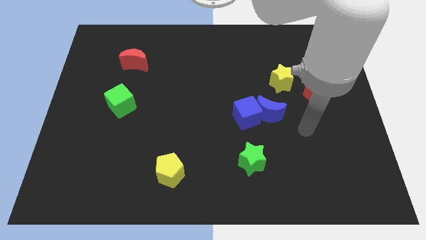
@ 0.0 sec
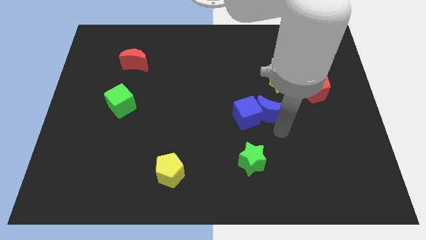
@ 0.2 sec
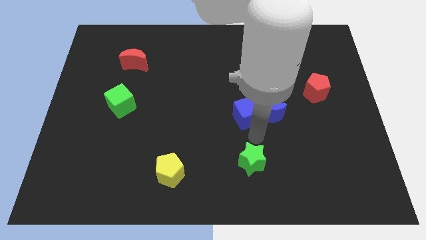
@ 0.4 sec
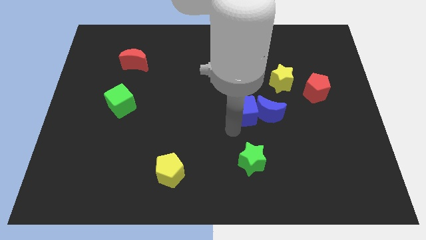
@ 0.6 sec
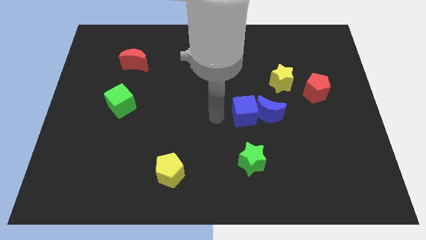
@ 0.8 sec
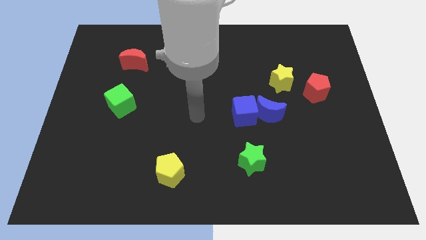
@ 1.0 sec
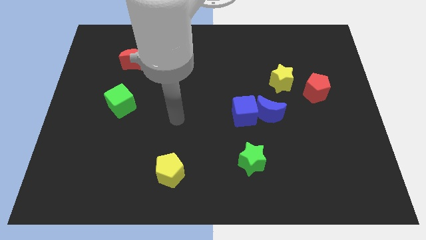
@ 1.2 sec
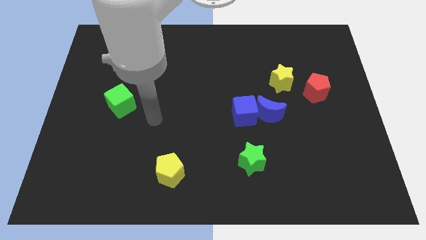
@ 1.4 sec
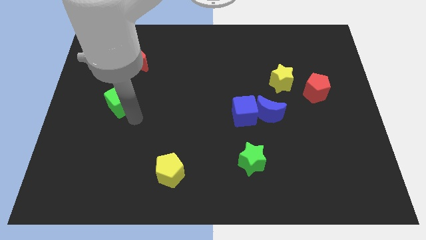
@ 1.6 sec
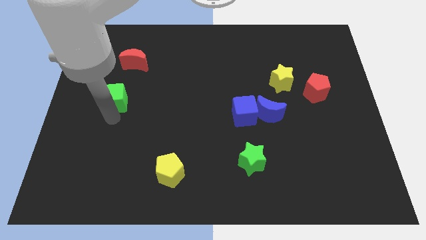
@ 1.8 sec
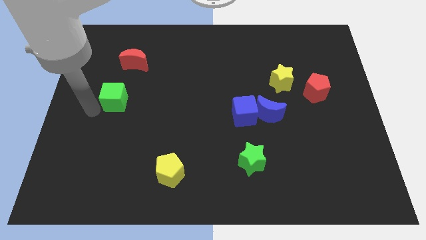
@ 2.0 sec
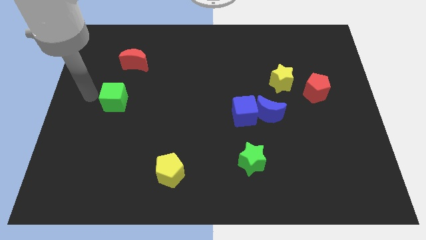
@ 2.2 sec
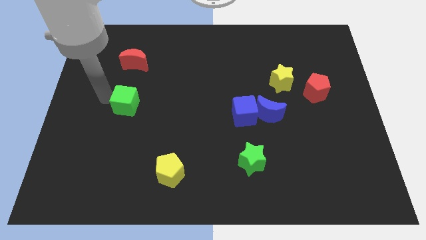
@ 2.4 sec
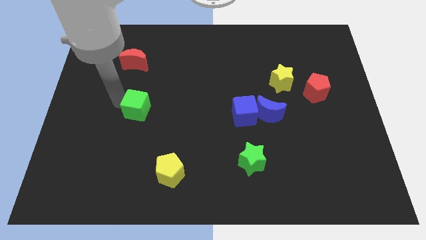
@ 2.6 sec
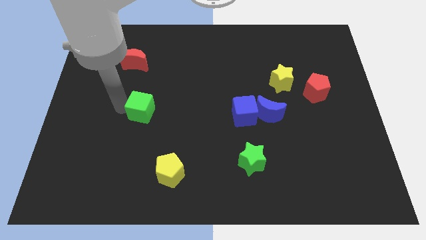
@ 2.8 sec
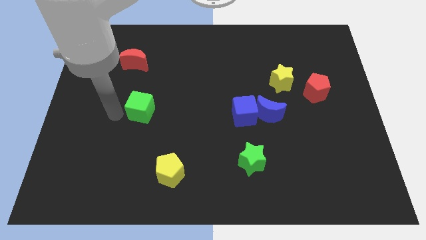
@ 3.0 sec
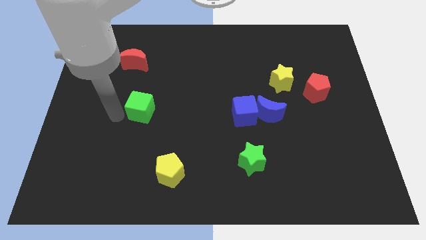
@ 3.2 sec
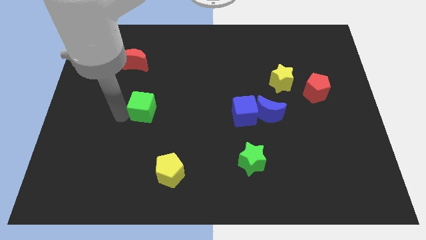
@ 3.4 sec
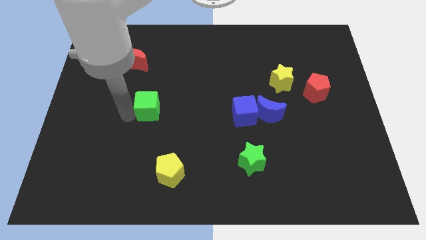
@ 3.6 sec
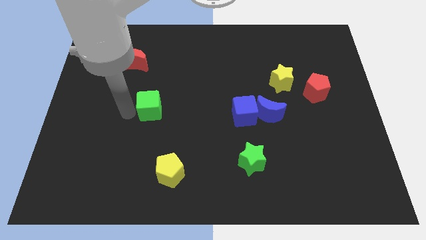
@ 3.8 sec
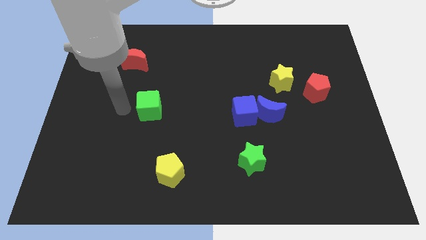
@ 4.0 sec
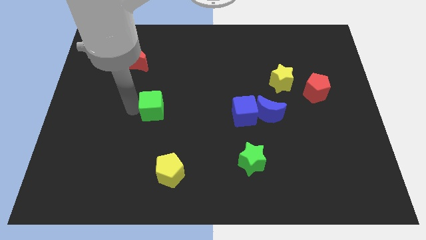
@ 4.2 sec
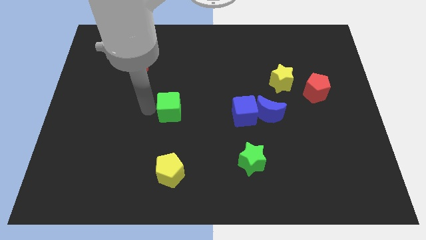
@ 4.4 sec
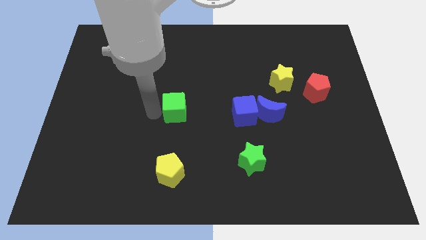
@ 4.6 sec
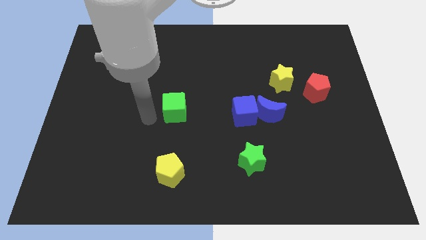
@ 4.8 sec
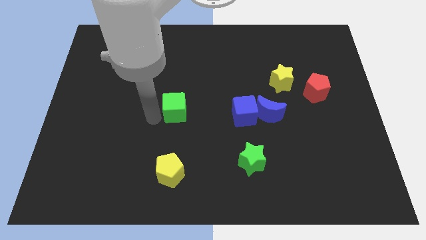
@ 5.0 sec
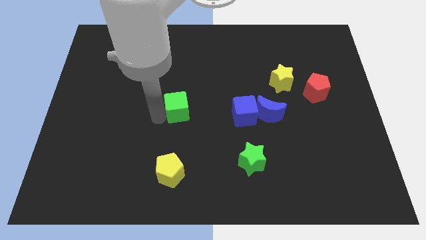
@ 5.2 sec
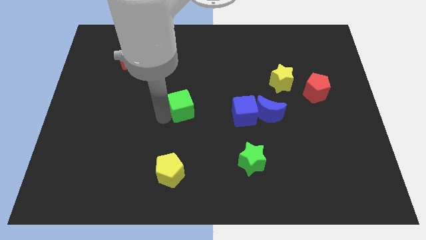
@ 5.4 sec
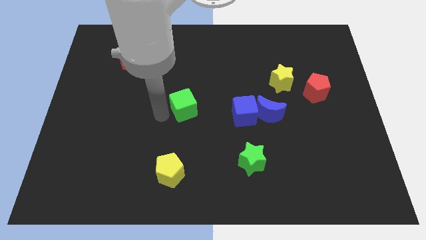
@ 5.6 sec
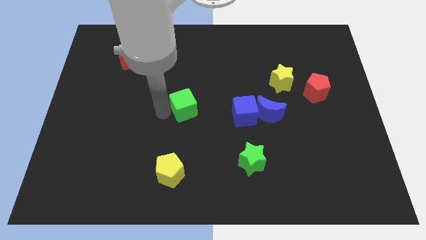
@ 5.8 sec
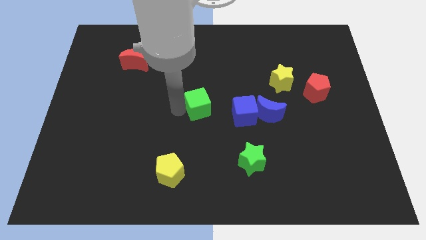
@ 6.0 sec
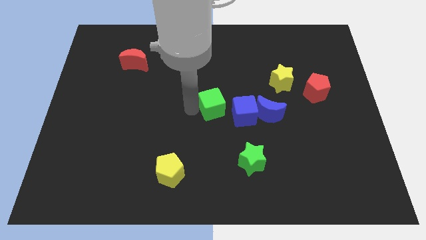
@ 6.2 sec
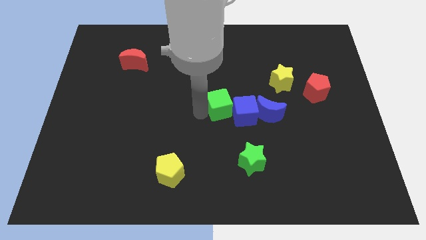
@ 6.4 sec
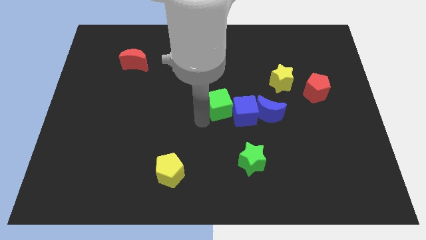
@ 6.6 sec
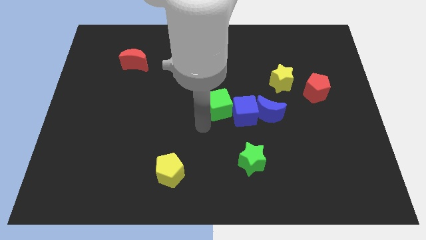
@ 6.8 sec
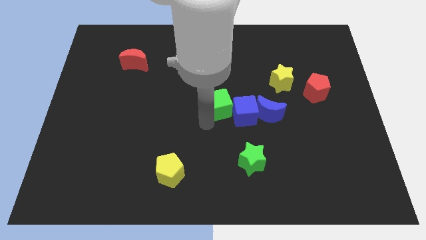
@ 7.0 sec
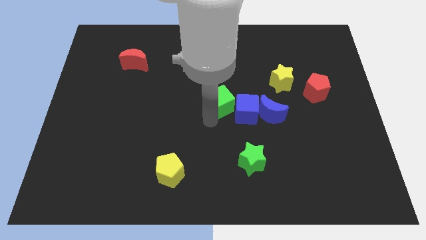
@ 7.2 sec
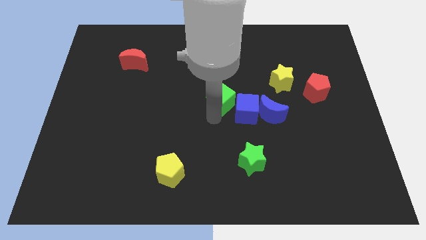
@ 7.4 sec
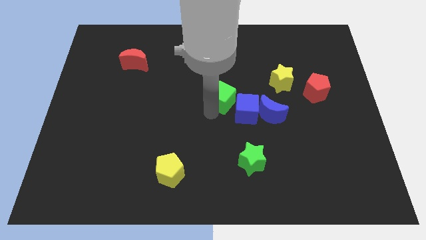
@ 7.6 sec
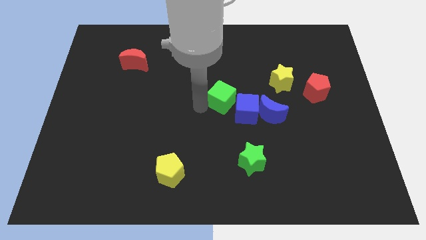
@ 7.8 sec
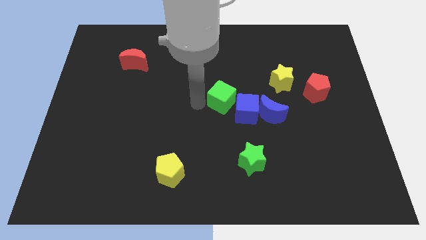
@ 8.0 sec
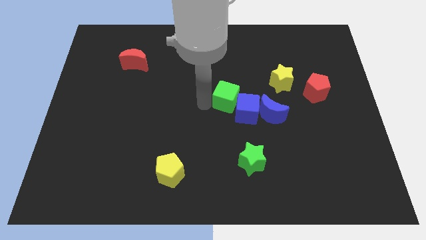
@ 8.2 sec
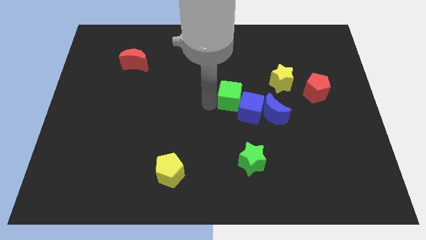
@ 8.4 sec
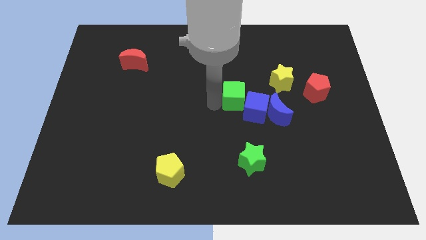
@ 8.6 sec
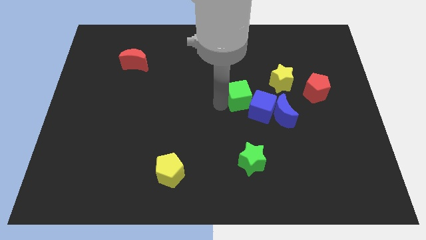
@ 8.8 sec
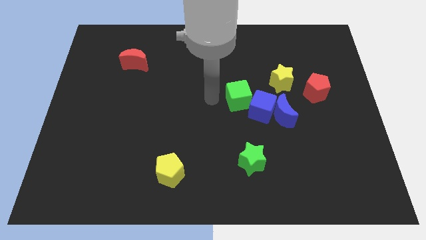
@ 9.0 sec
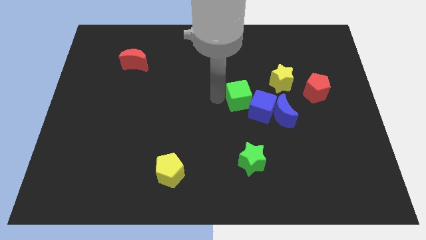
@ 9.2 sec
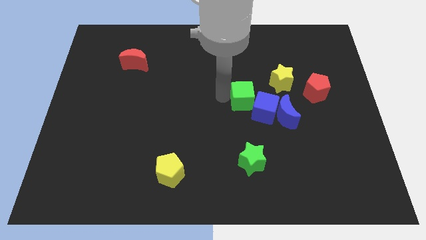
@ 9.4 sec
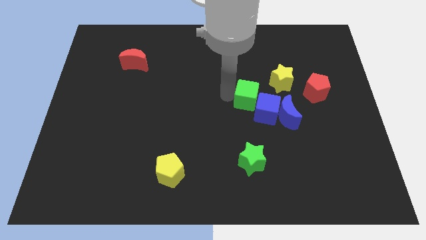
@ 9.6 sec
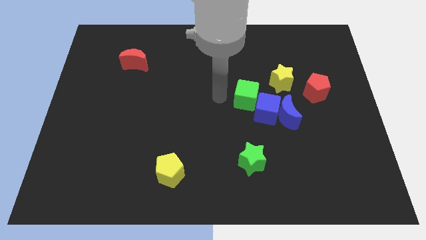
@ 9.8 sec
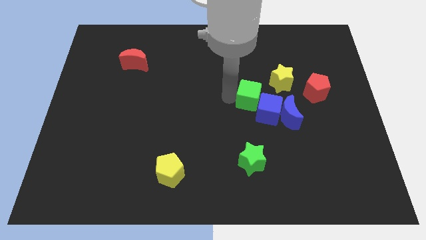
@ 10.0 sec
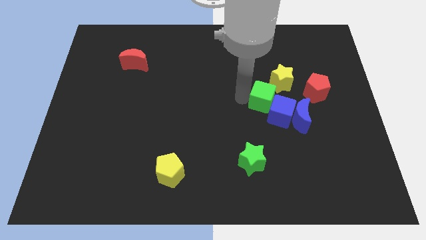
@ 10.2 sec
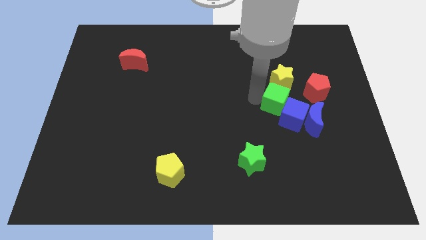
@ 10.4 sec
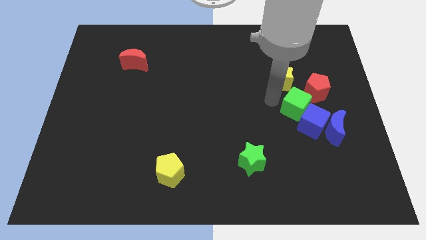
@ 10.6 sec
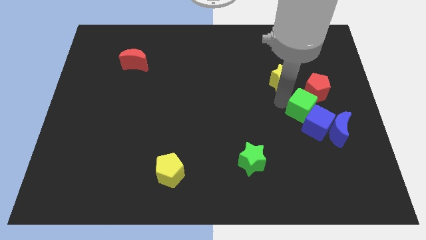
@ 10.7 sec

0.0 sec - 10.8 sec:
move the green cube below the red pentagon

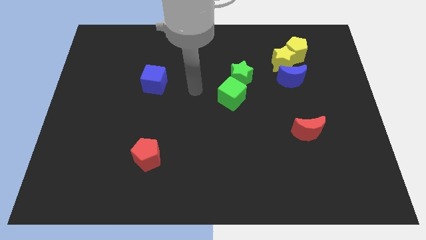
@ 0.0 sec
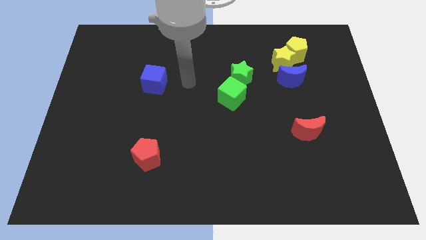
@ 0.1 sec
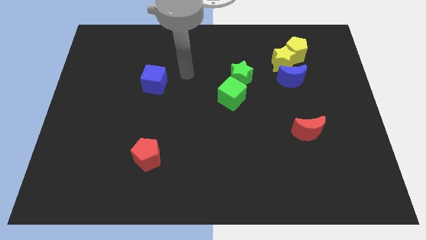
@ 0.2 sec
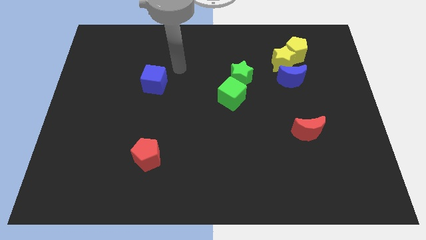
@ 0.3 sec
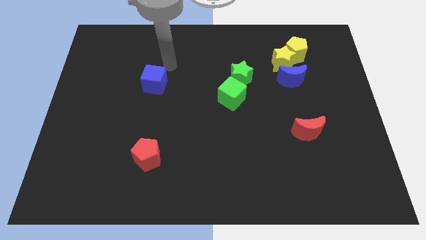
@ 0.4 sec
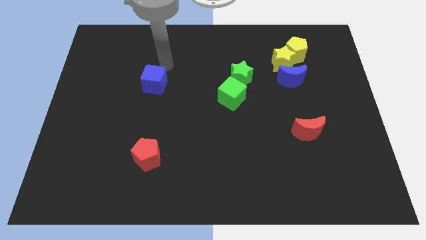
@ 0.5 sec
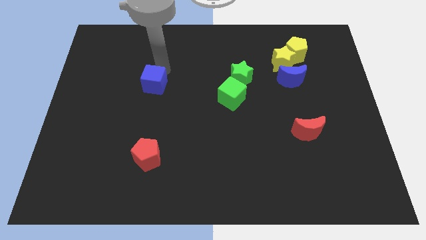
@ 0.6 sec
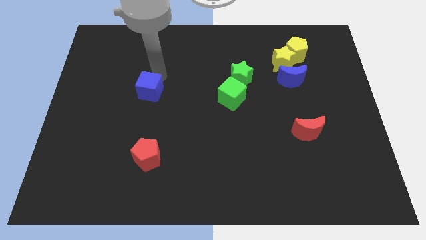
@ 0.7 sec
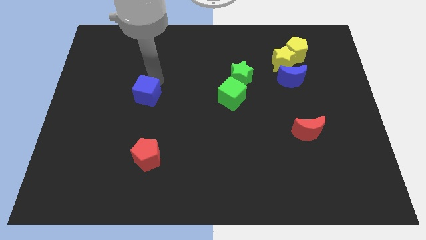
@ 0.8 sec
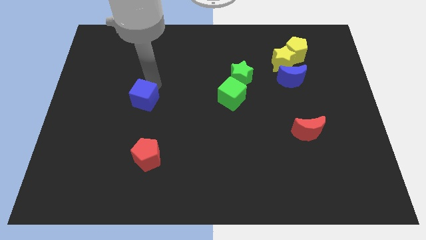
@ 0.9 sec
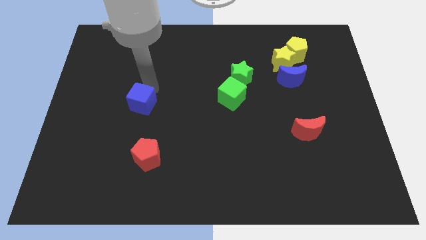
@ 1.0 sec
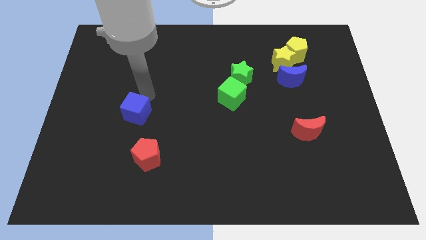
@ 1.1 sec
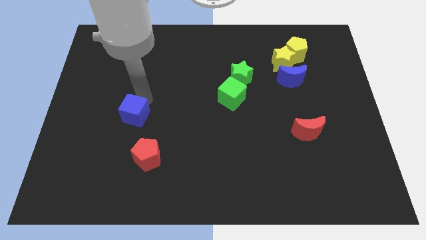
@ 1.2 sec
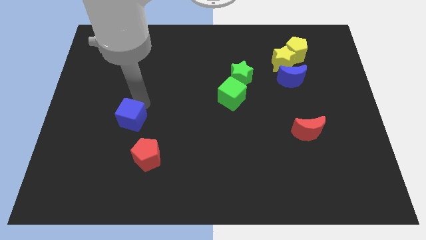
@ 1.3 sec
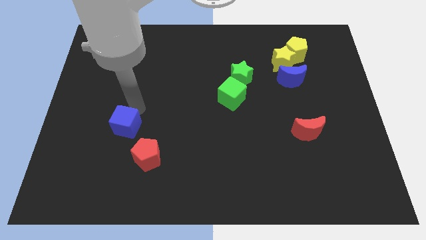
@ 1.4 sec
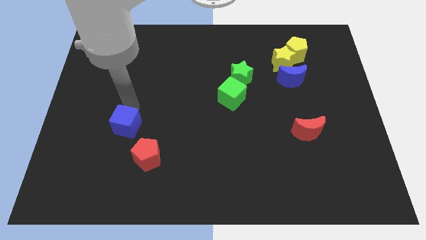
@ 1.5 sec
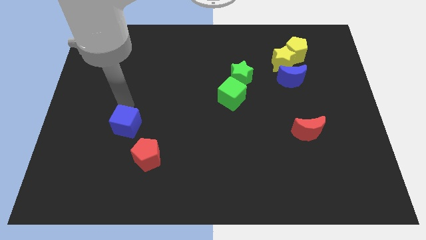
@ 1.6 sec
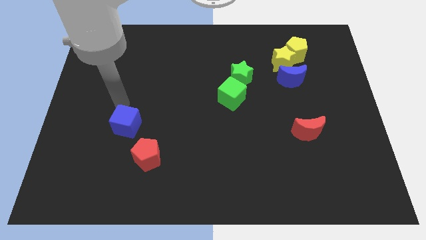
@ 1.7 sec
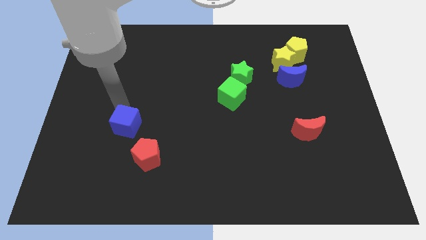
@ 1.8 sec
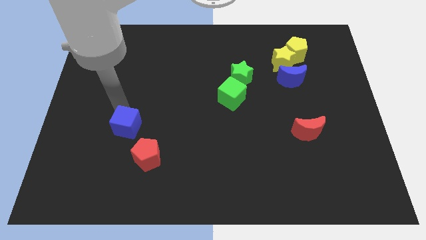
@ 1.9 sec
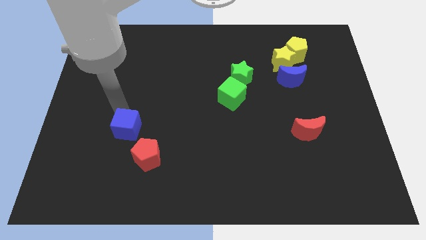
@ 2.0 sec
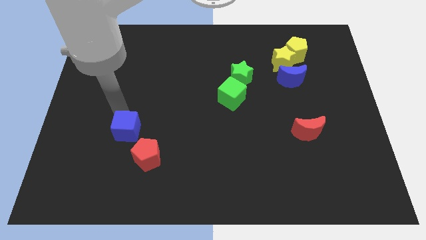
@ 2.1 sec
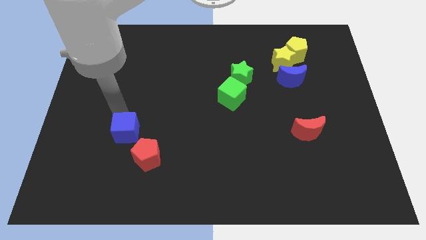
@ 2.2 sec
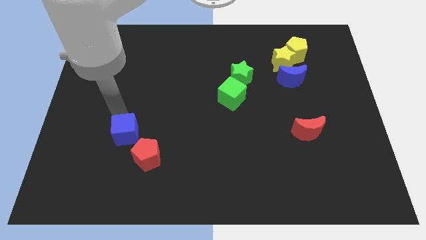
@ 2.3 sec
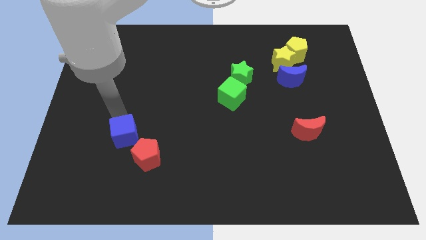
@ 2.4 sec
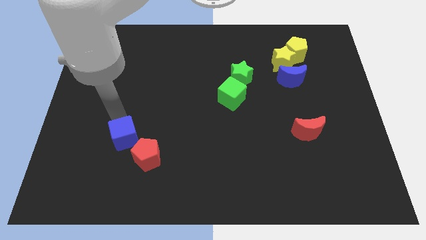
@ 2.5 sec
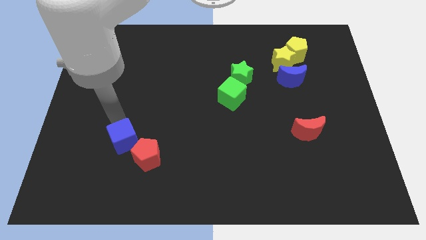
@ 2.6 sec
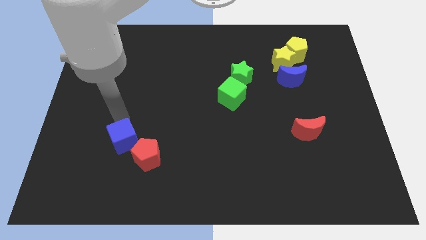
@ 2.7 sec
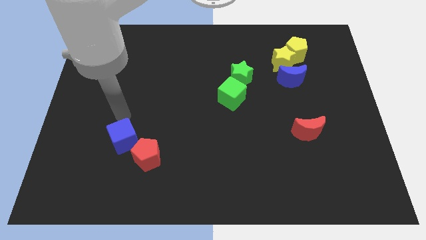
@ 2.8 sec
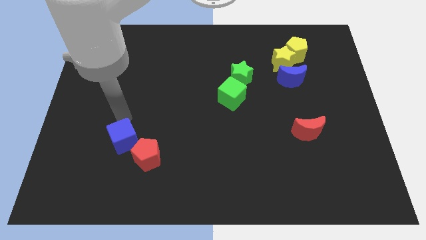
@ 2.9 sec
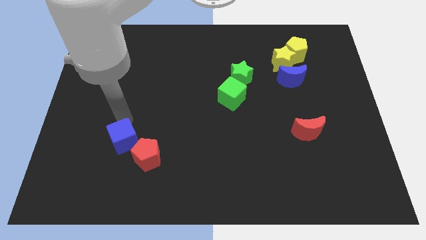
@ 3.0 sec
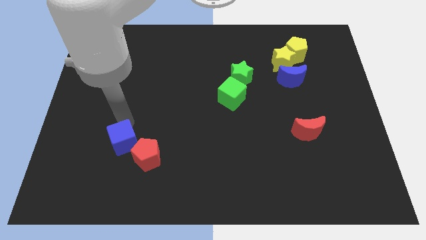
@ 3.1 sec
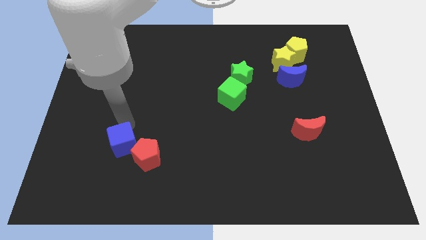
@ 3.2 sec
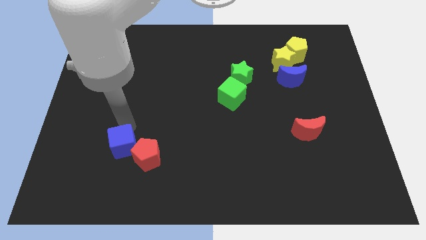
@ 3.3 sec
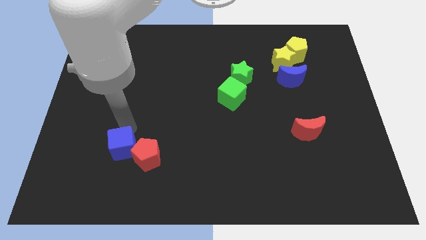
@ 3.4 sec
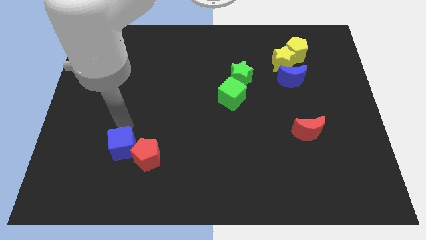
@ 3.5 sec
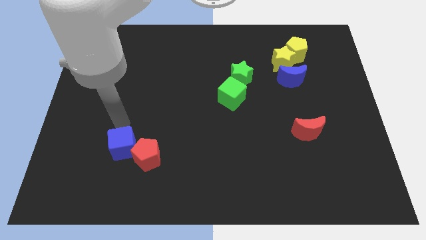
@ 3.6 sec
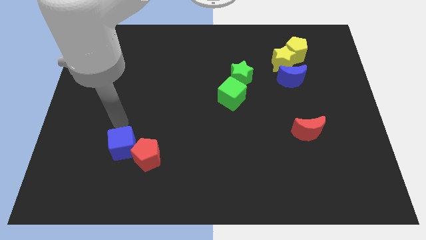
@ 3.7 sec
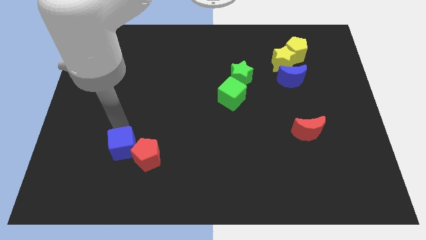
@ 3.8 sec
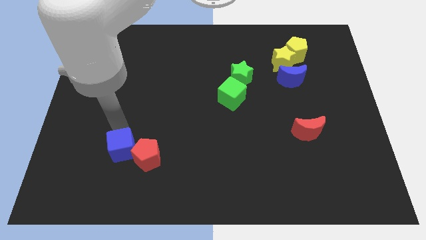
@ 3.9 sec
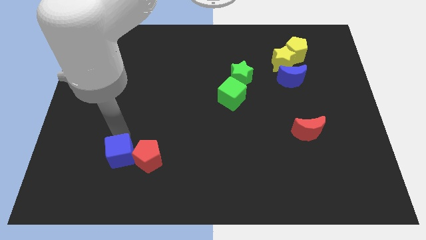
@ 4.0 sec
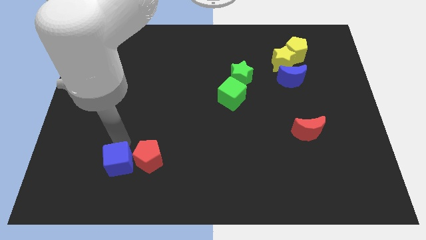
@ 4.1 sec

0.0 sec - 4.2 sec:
push the blue cube to the bottom left side of the red pentagon
